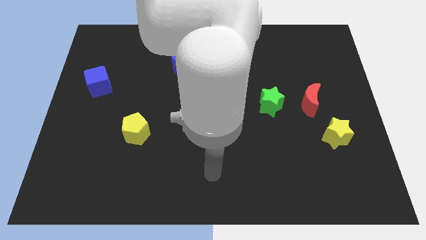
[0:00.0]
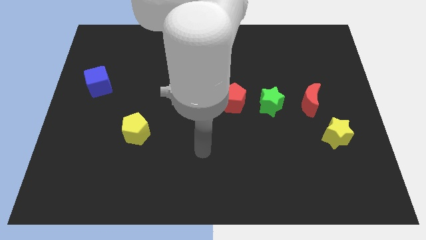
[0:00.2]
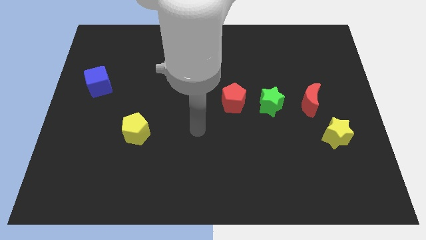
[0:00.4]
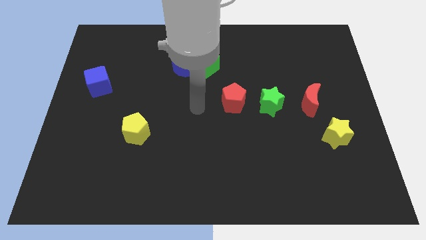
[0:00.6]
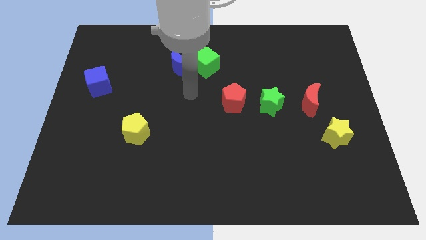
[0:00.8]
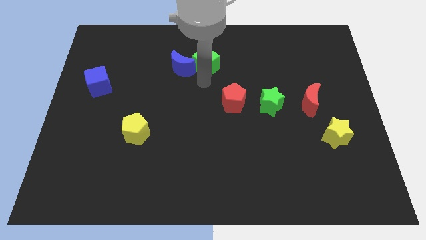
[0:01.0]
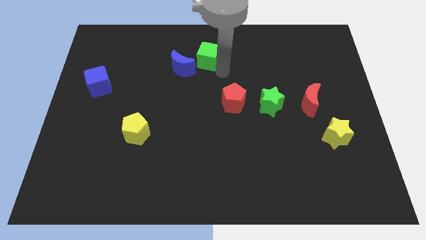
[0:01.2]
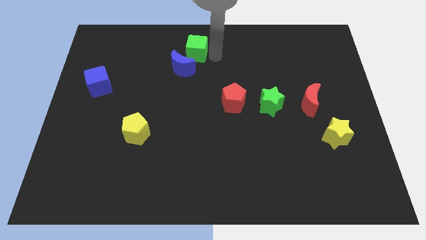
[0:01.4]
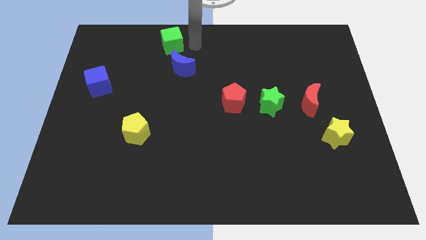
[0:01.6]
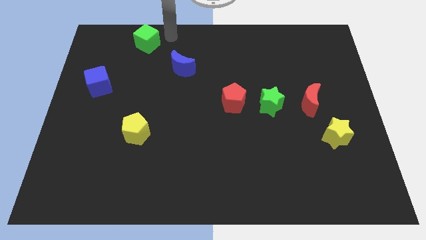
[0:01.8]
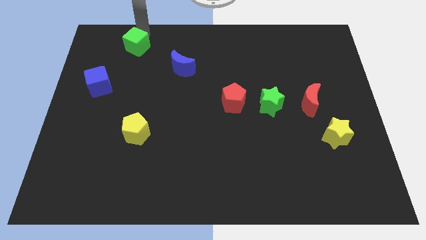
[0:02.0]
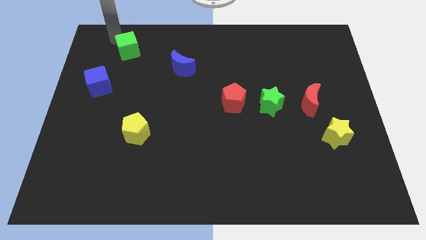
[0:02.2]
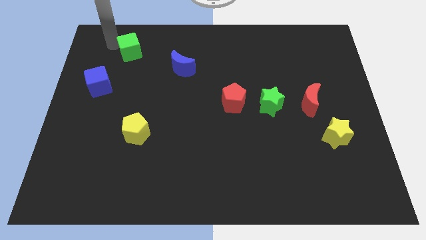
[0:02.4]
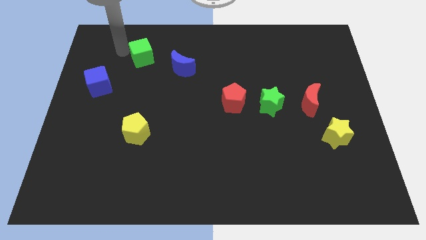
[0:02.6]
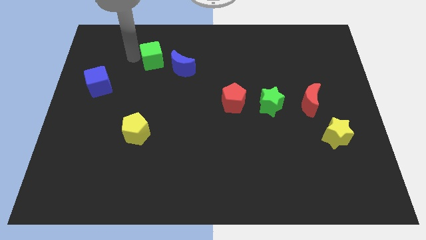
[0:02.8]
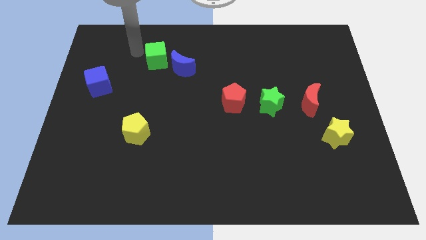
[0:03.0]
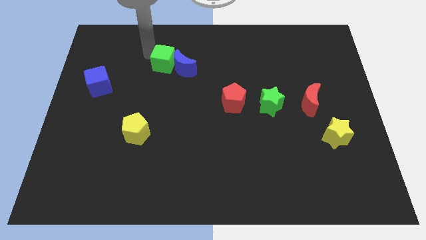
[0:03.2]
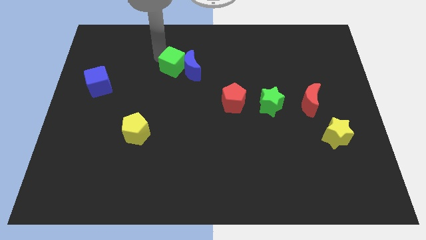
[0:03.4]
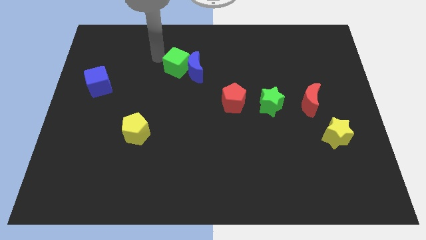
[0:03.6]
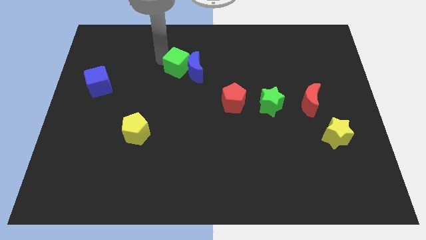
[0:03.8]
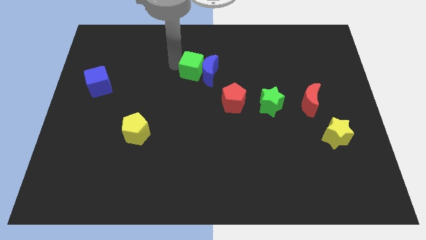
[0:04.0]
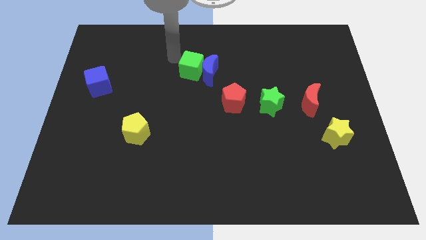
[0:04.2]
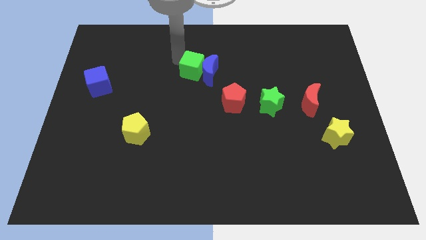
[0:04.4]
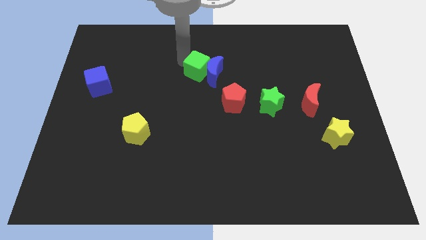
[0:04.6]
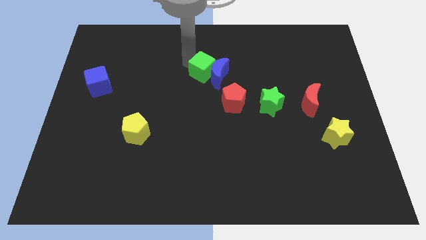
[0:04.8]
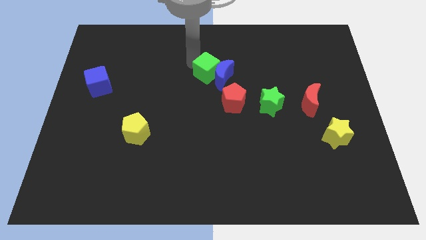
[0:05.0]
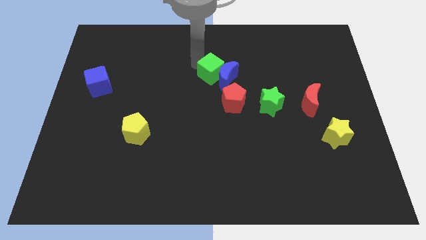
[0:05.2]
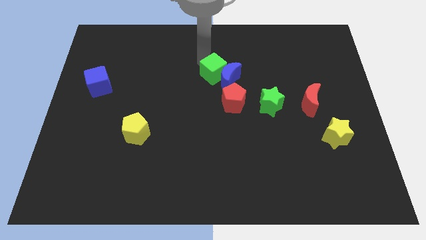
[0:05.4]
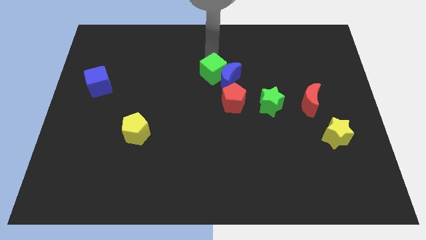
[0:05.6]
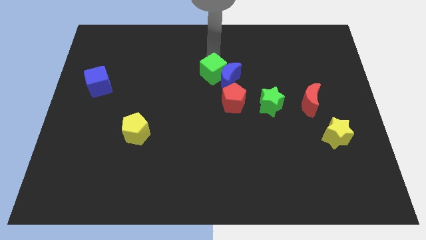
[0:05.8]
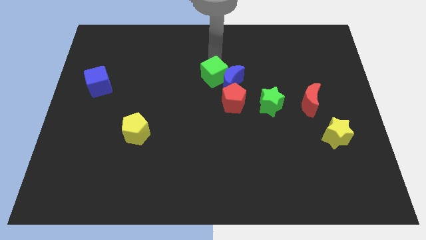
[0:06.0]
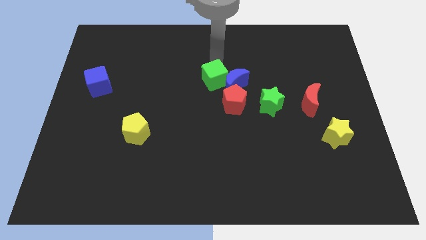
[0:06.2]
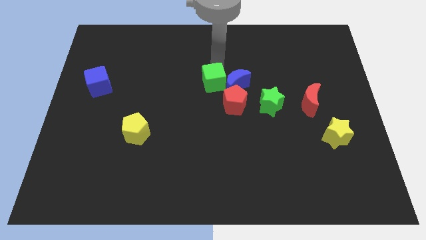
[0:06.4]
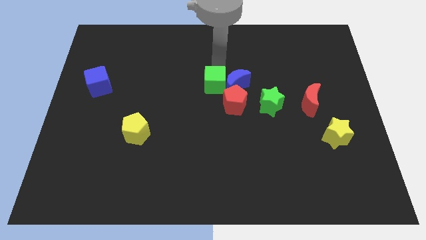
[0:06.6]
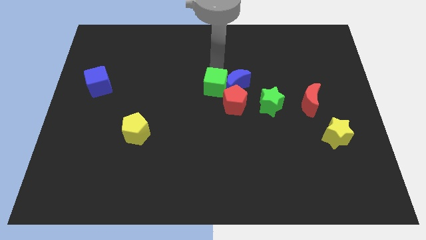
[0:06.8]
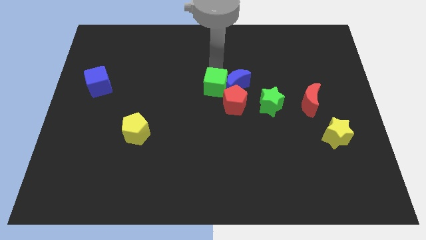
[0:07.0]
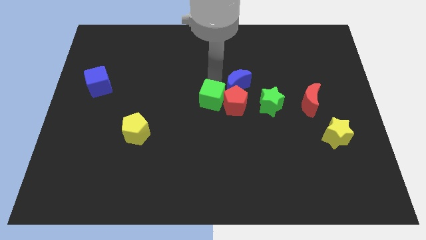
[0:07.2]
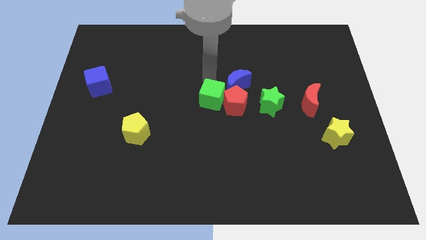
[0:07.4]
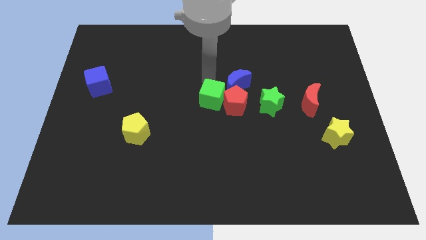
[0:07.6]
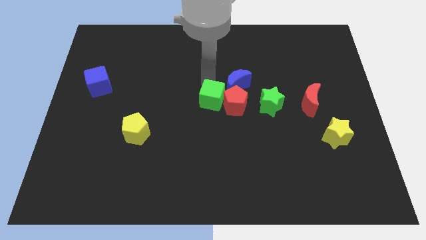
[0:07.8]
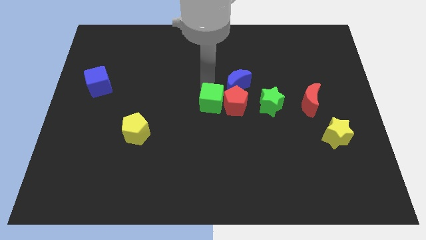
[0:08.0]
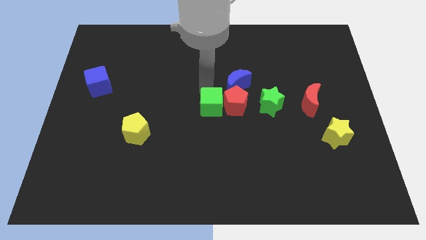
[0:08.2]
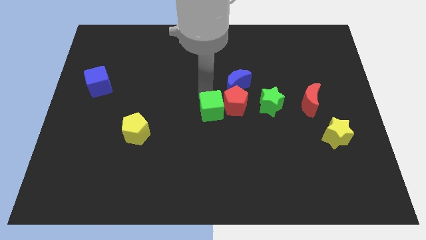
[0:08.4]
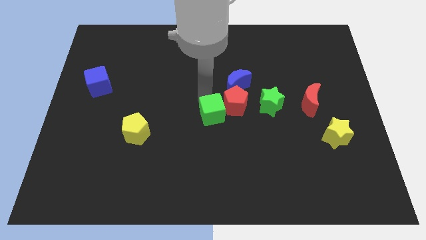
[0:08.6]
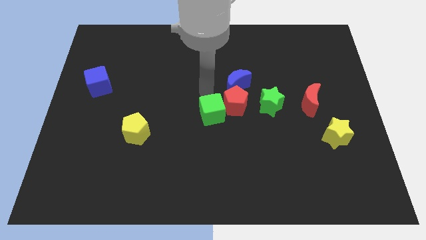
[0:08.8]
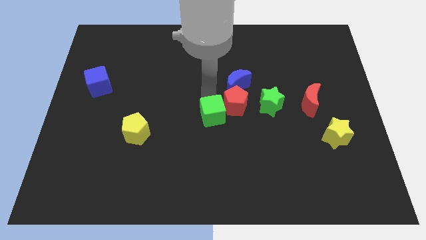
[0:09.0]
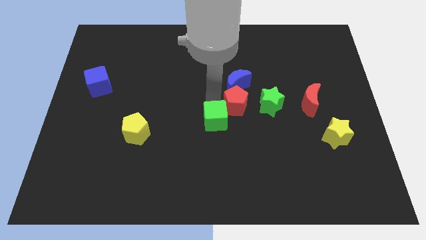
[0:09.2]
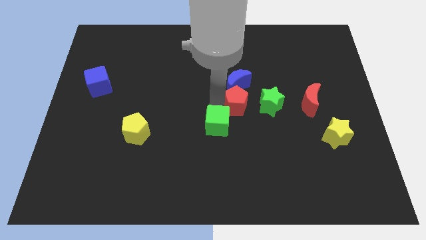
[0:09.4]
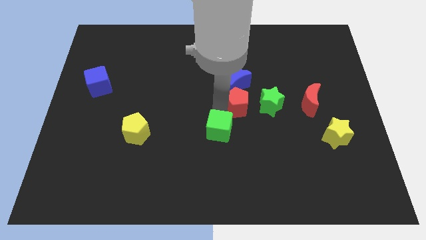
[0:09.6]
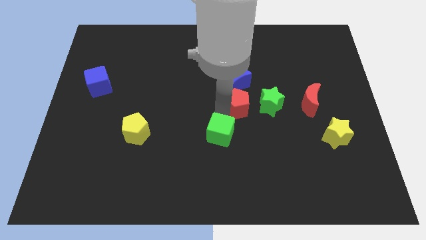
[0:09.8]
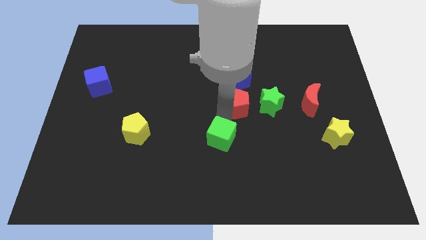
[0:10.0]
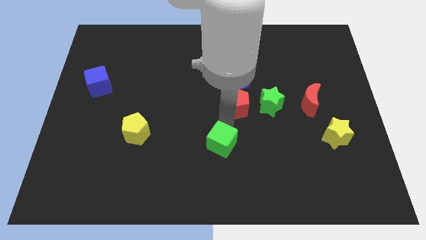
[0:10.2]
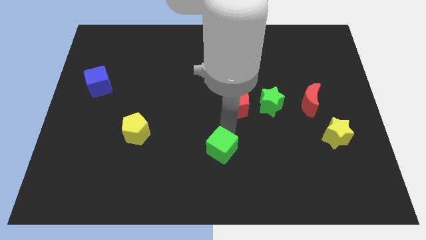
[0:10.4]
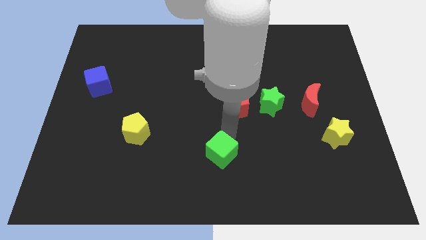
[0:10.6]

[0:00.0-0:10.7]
slide the green cube to the bottom

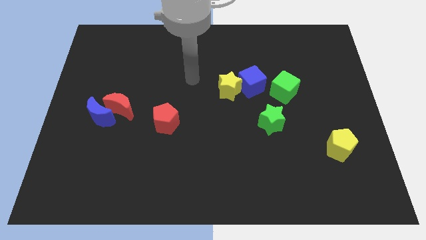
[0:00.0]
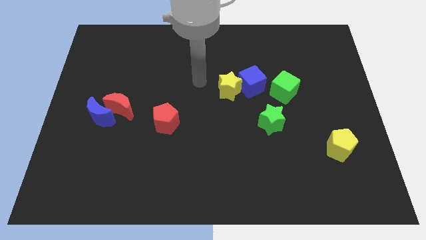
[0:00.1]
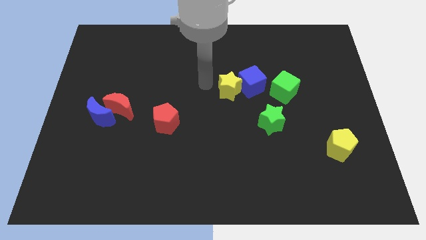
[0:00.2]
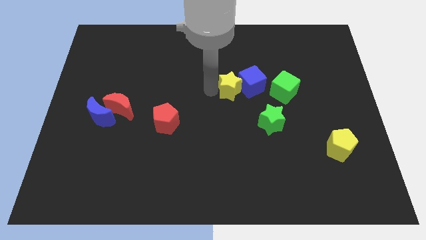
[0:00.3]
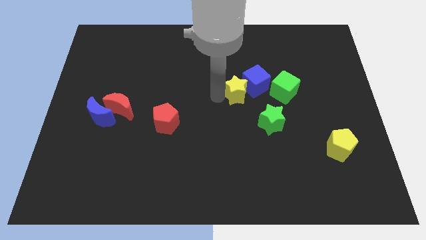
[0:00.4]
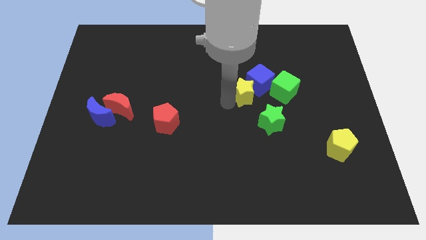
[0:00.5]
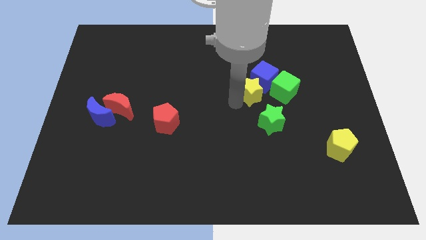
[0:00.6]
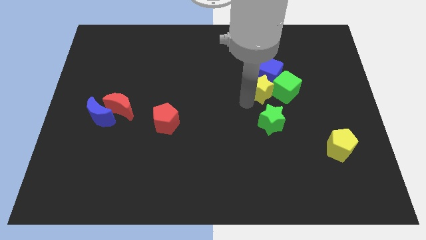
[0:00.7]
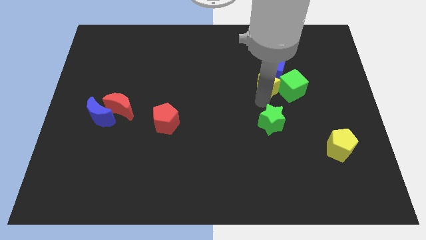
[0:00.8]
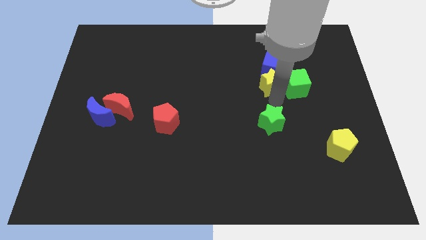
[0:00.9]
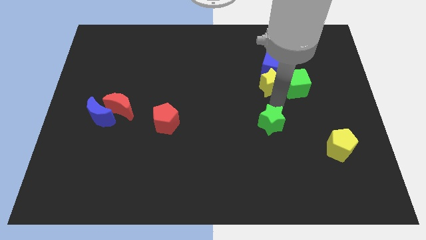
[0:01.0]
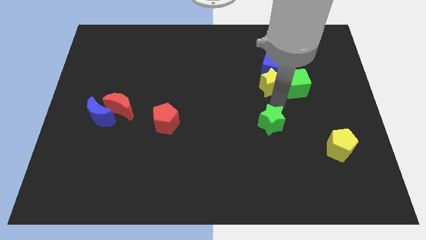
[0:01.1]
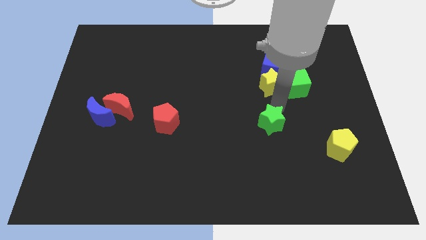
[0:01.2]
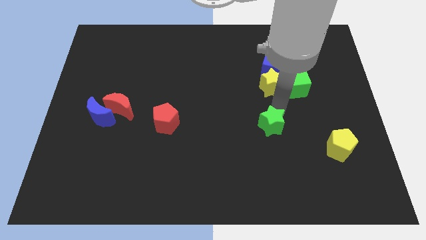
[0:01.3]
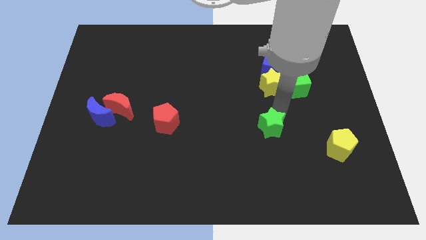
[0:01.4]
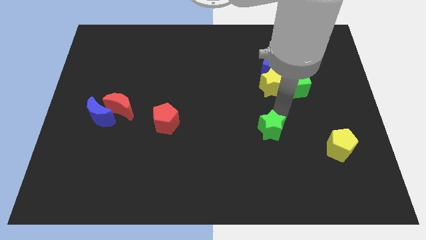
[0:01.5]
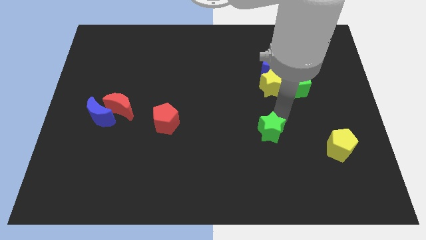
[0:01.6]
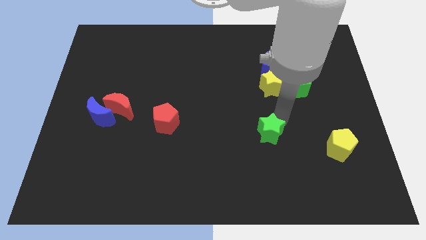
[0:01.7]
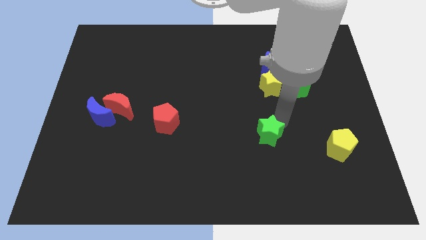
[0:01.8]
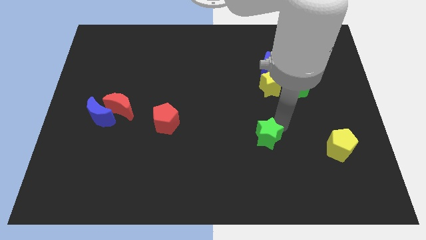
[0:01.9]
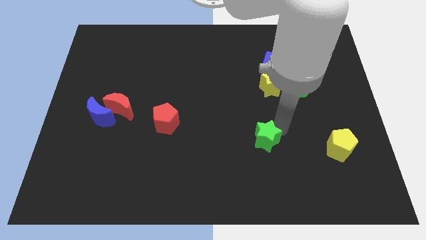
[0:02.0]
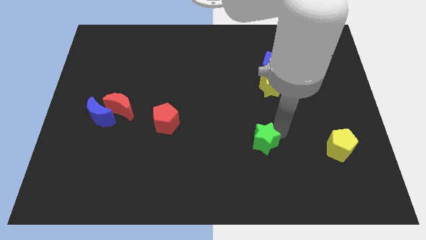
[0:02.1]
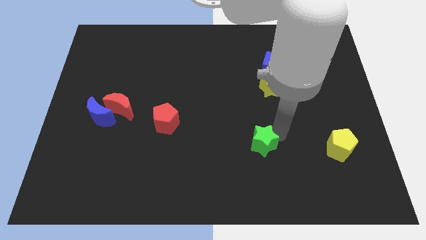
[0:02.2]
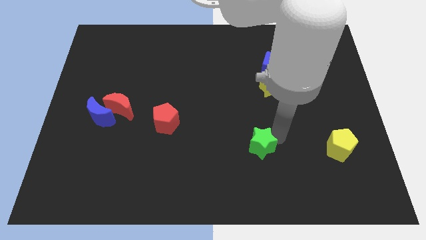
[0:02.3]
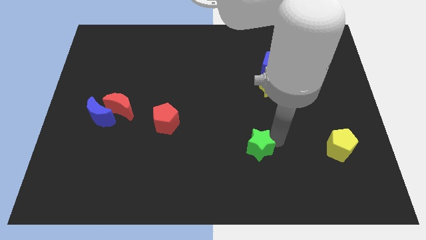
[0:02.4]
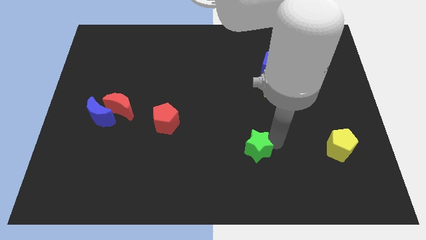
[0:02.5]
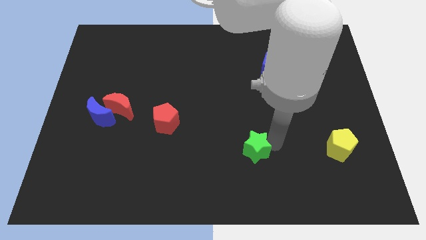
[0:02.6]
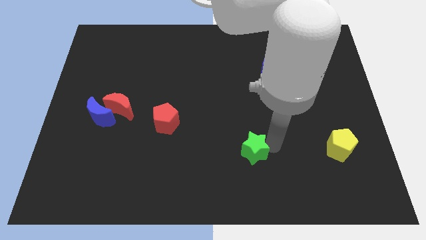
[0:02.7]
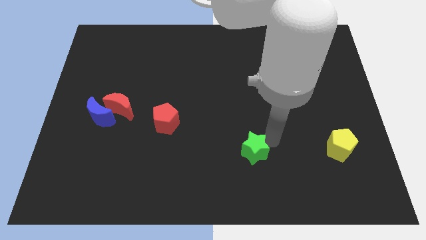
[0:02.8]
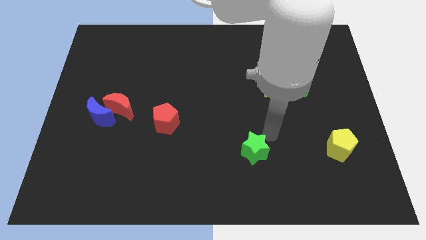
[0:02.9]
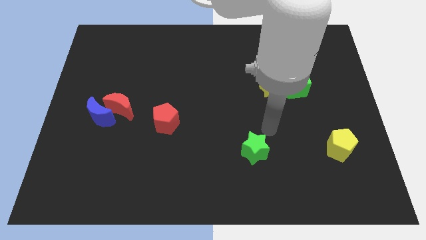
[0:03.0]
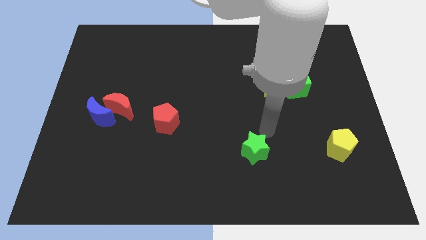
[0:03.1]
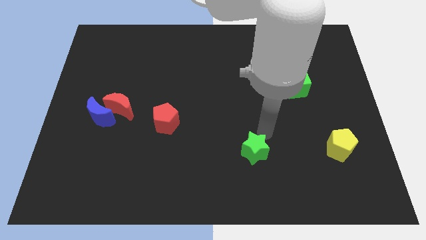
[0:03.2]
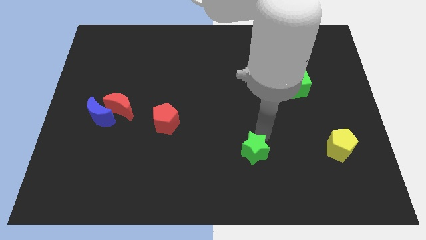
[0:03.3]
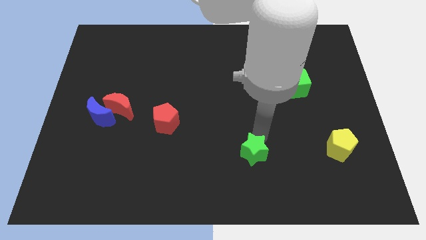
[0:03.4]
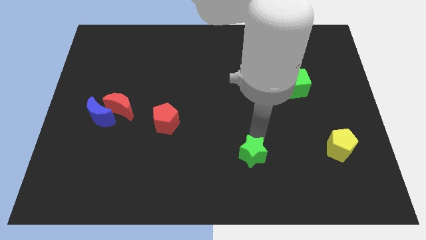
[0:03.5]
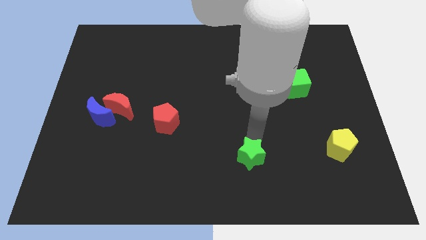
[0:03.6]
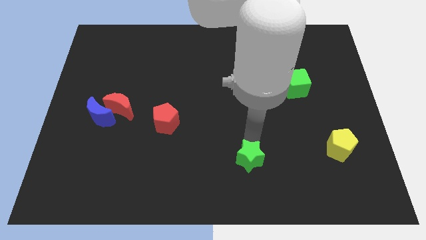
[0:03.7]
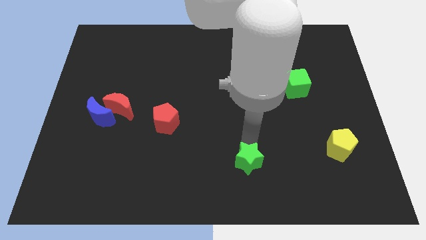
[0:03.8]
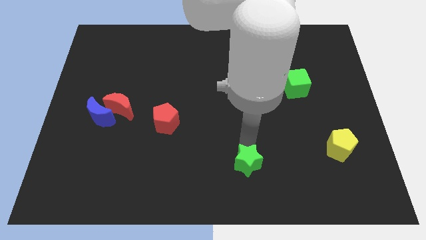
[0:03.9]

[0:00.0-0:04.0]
slide the green star to the bottom side
